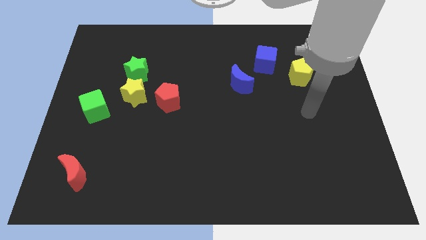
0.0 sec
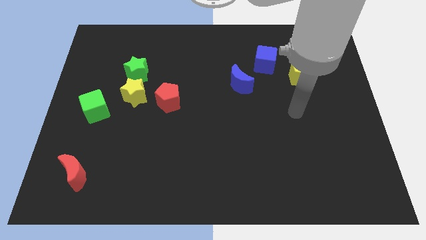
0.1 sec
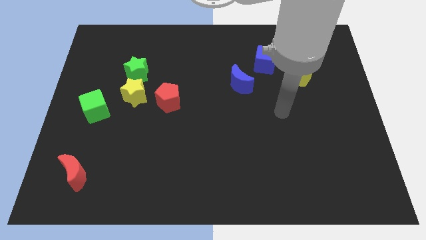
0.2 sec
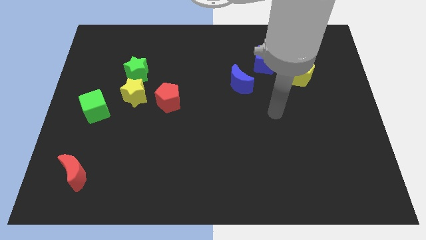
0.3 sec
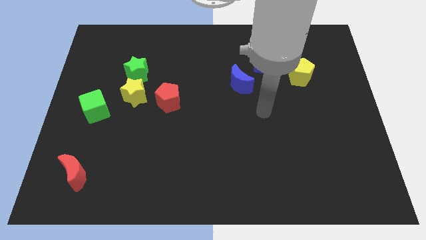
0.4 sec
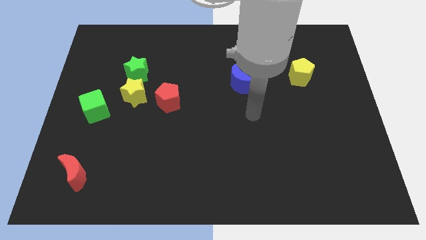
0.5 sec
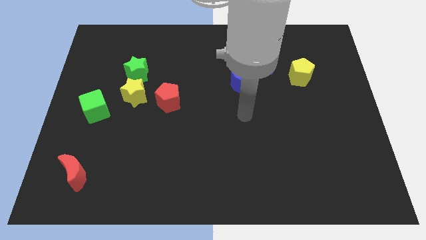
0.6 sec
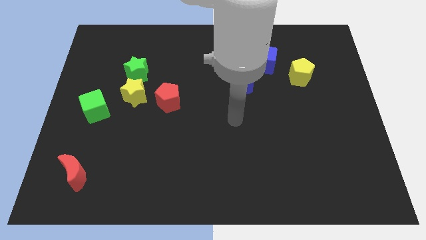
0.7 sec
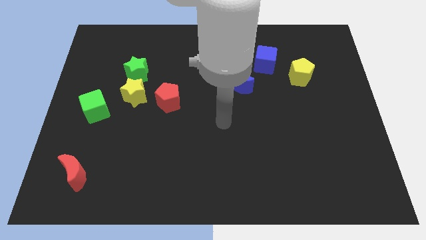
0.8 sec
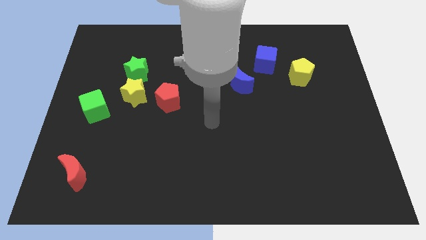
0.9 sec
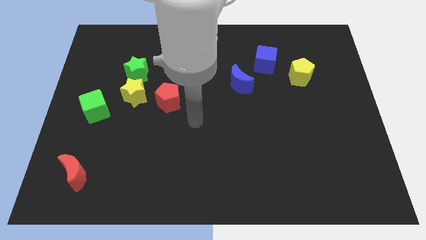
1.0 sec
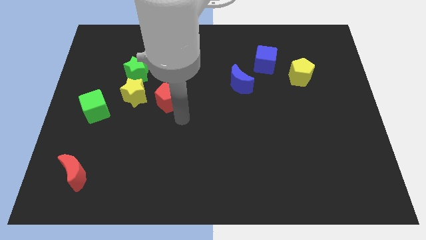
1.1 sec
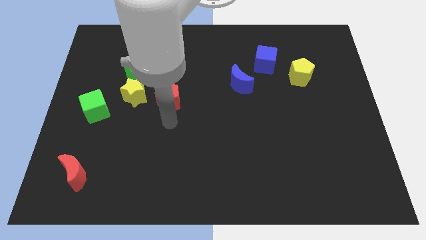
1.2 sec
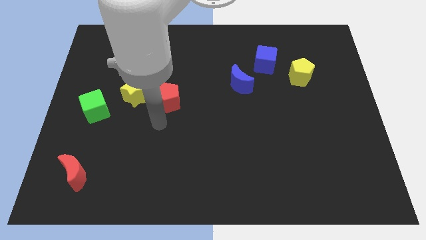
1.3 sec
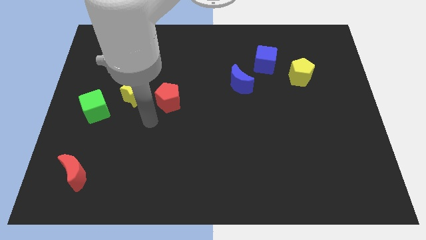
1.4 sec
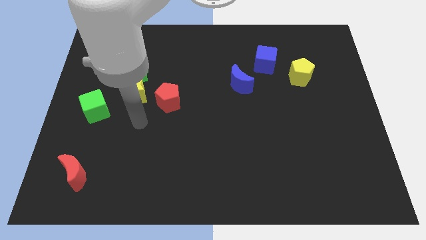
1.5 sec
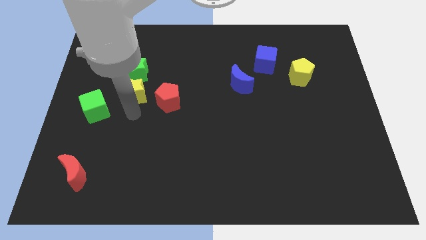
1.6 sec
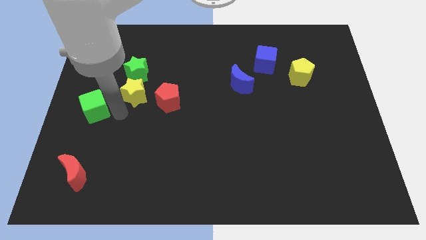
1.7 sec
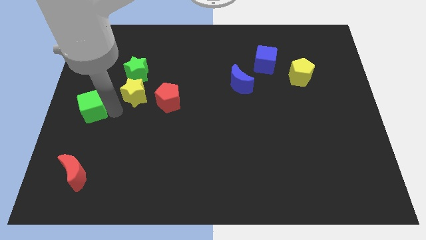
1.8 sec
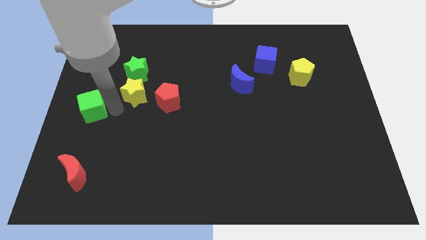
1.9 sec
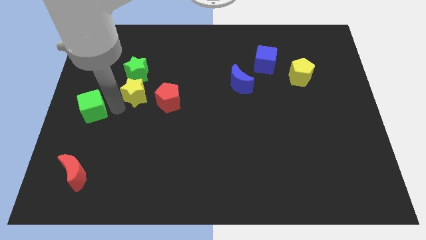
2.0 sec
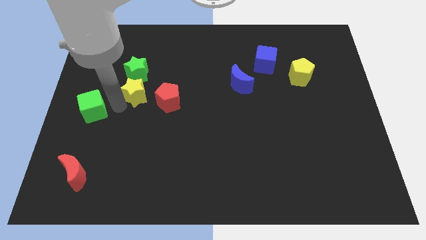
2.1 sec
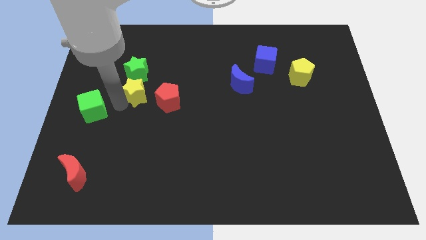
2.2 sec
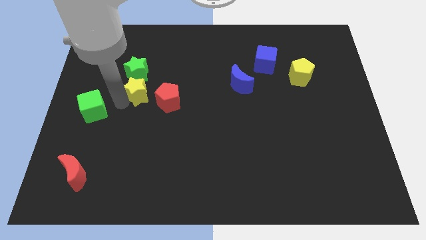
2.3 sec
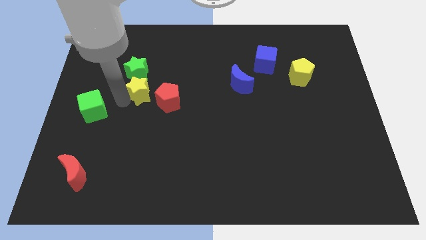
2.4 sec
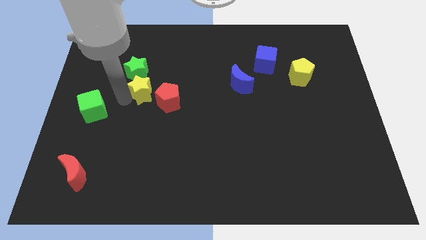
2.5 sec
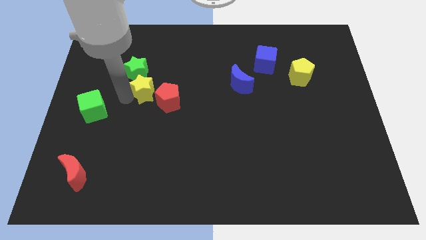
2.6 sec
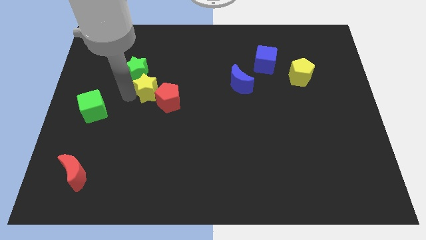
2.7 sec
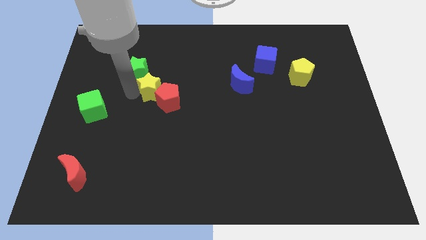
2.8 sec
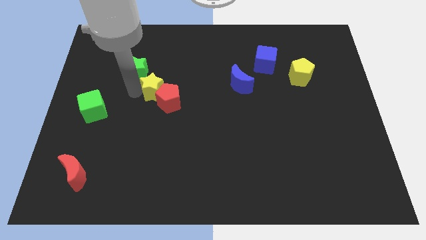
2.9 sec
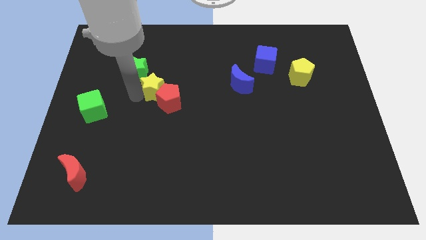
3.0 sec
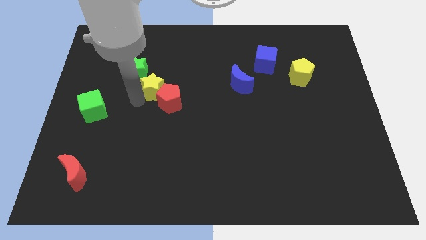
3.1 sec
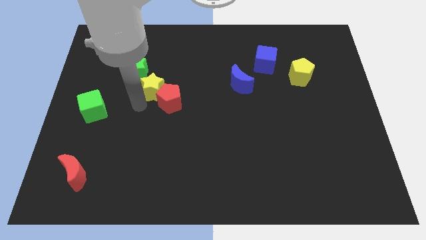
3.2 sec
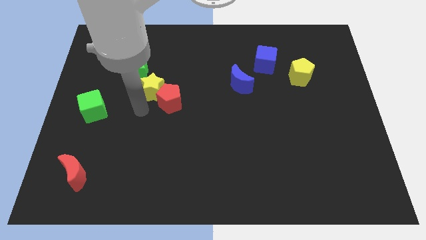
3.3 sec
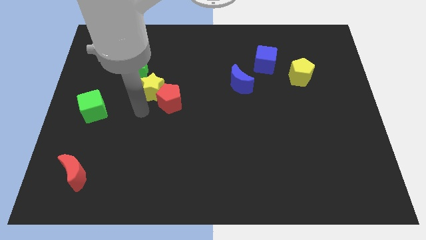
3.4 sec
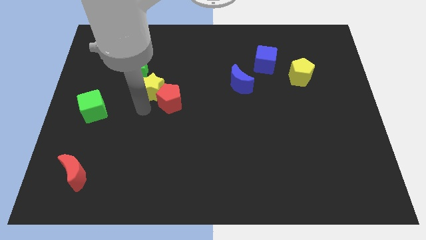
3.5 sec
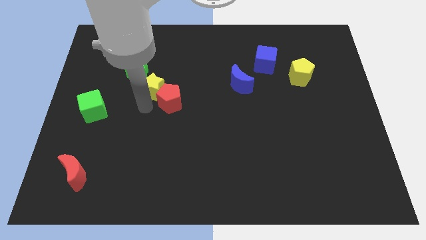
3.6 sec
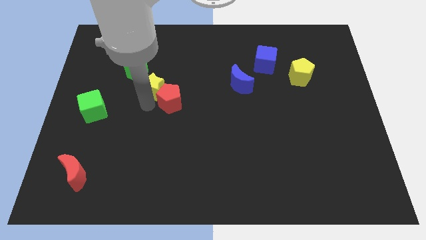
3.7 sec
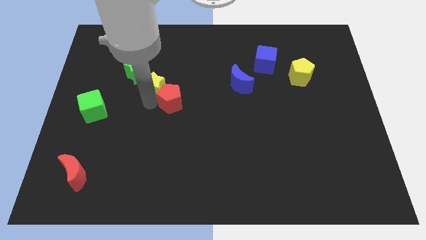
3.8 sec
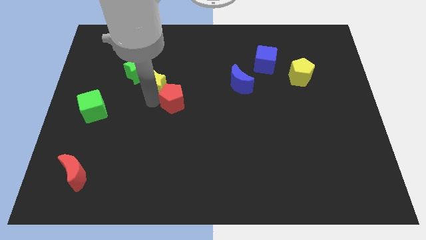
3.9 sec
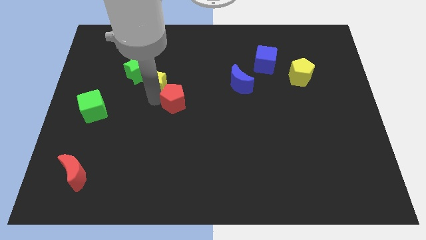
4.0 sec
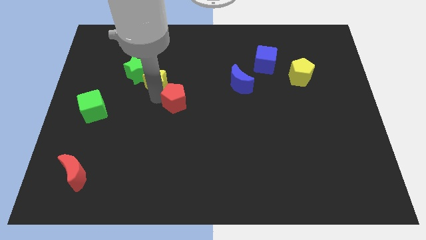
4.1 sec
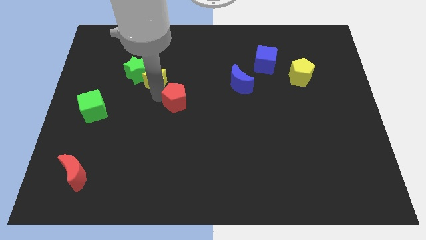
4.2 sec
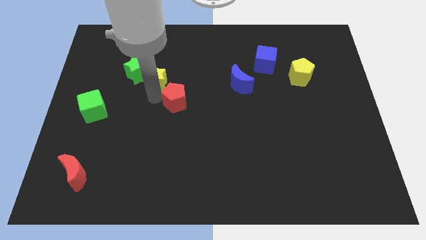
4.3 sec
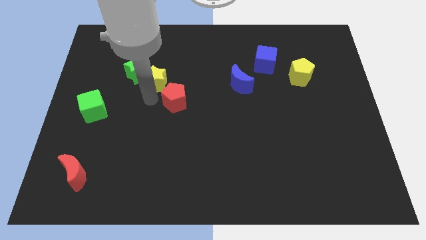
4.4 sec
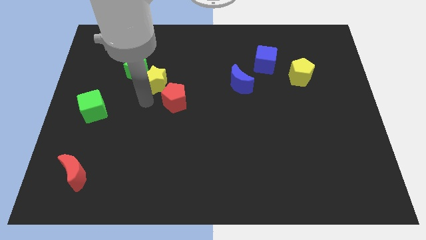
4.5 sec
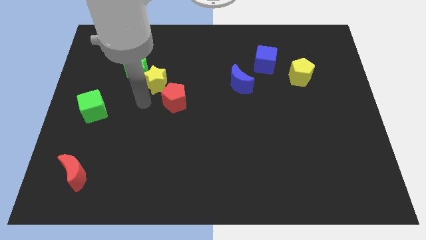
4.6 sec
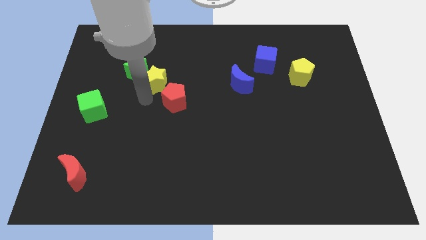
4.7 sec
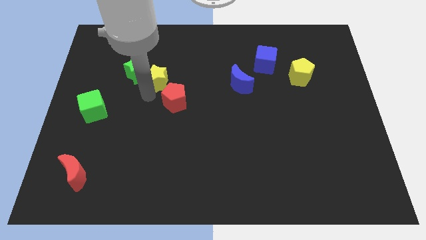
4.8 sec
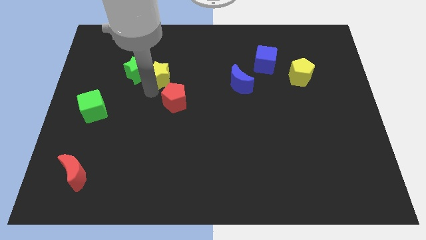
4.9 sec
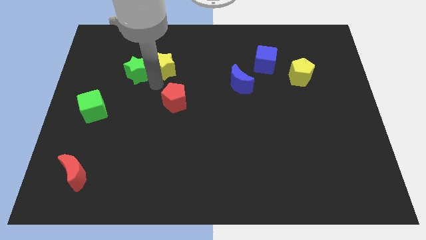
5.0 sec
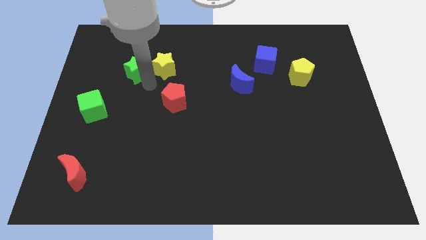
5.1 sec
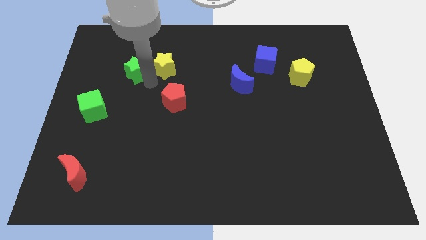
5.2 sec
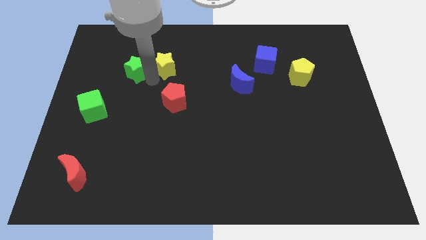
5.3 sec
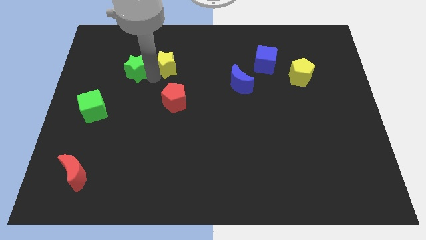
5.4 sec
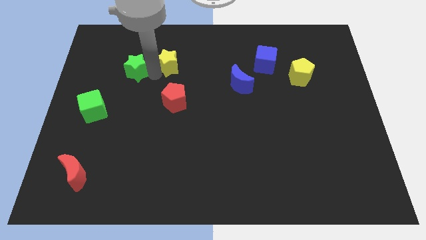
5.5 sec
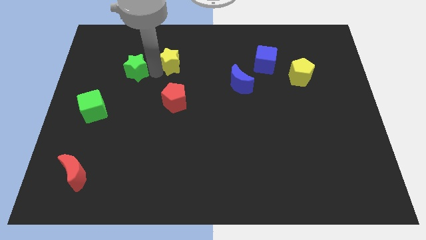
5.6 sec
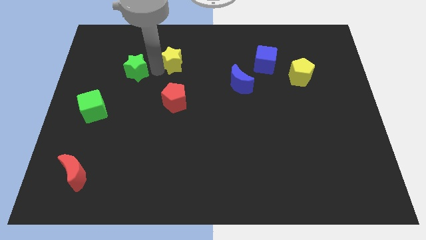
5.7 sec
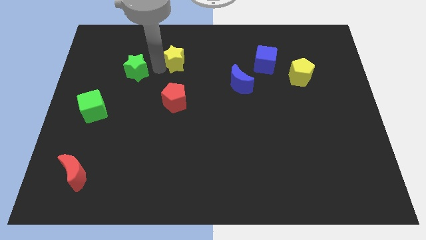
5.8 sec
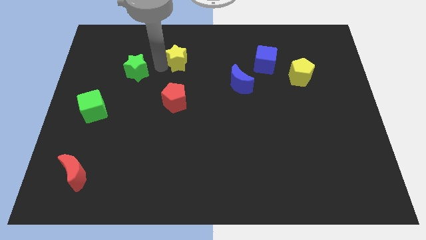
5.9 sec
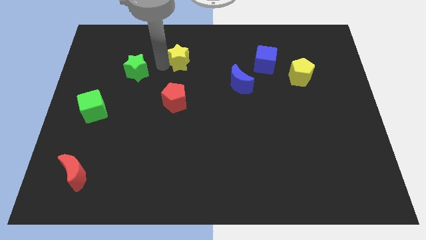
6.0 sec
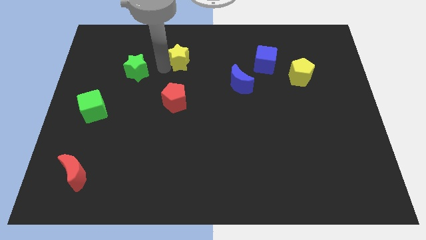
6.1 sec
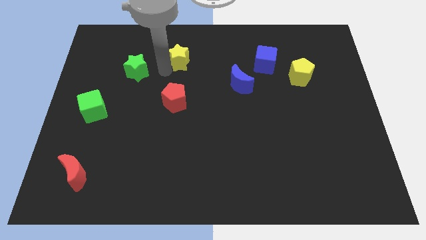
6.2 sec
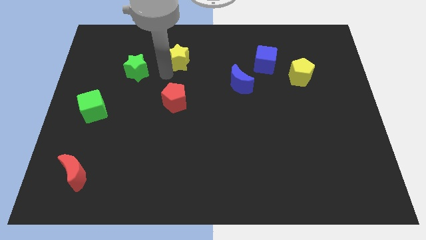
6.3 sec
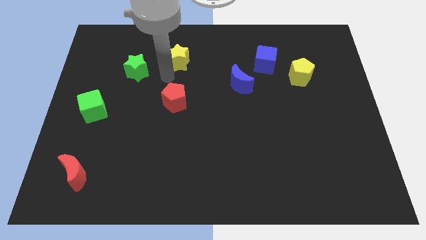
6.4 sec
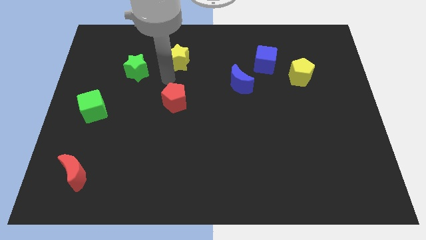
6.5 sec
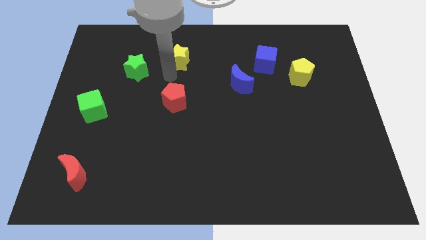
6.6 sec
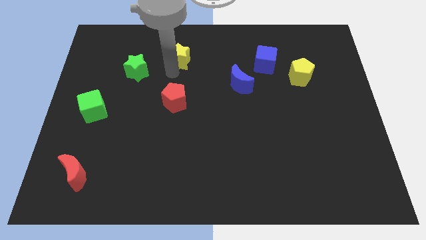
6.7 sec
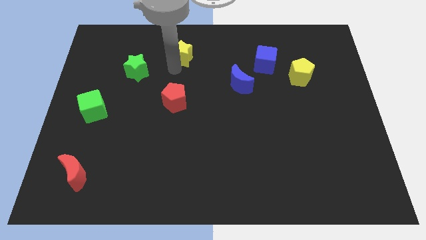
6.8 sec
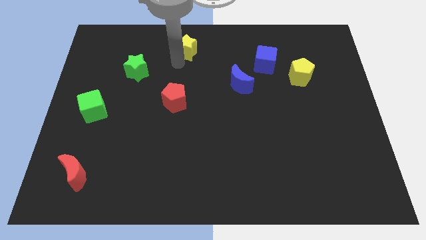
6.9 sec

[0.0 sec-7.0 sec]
slide the yellow star to the towards your base
